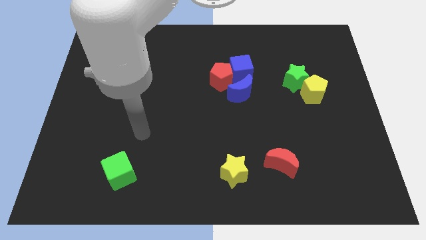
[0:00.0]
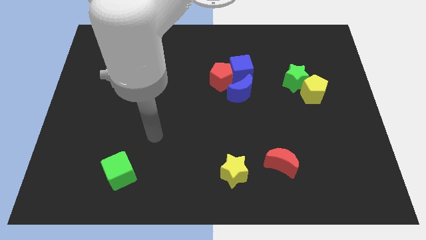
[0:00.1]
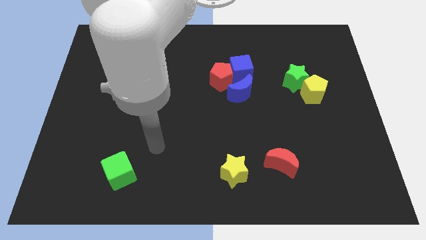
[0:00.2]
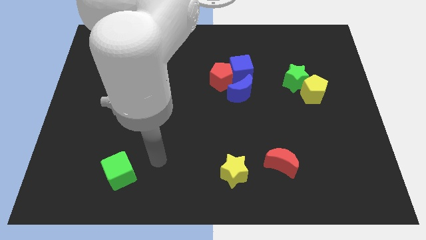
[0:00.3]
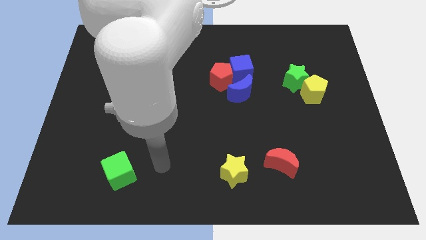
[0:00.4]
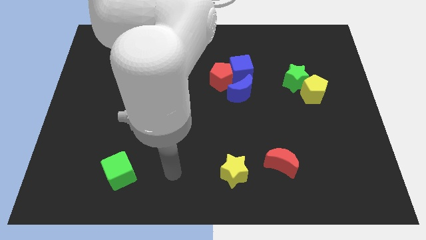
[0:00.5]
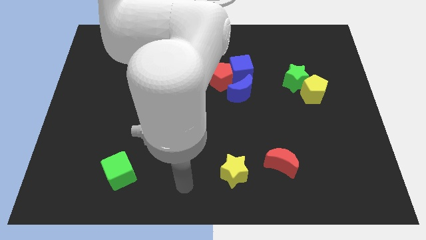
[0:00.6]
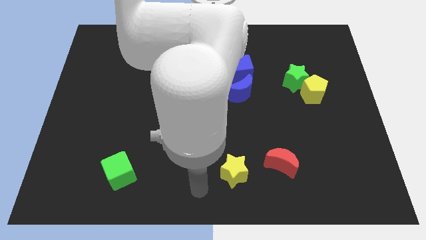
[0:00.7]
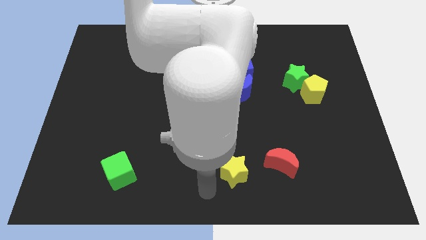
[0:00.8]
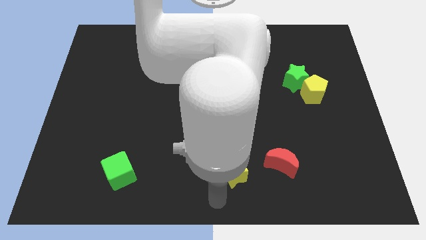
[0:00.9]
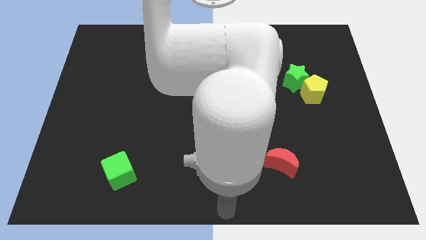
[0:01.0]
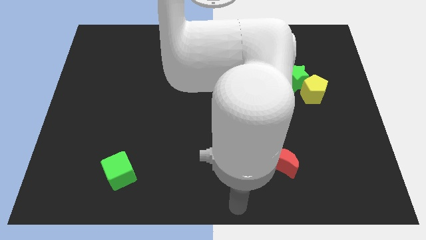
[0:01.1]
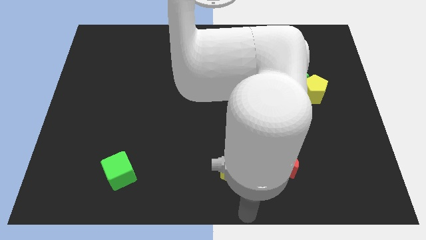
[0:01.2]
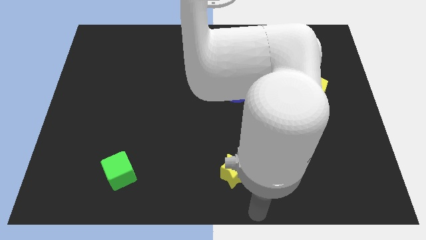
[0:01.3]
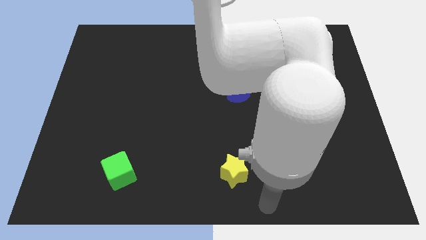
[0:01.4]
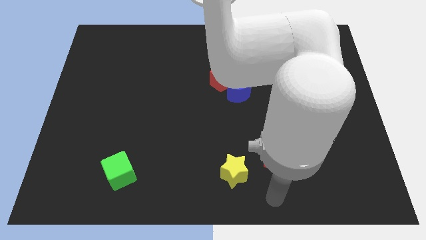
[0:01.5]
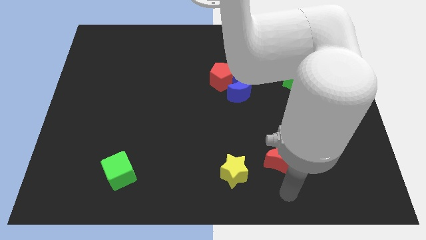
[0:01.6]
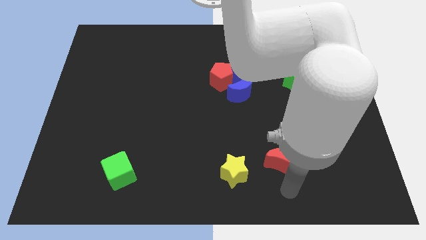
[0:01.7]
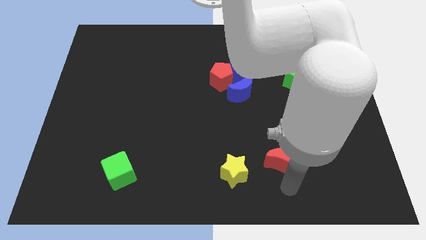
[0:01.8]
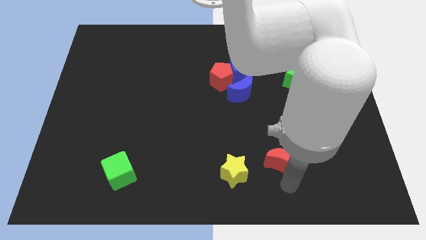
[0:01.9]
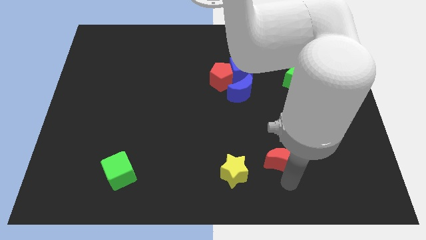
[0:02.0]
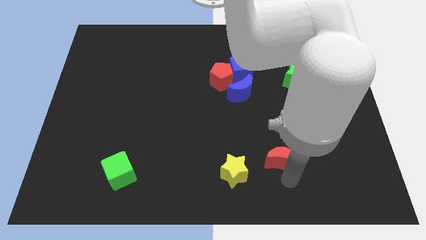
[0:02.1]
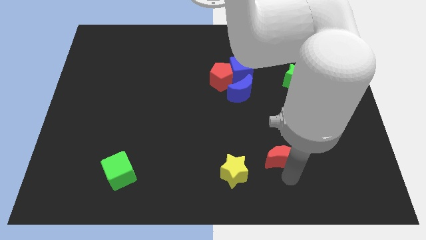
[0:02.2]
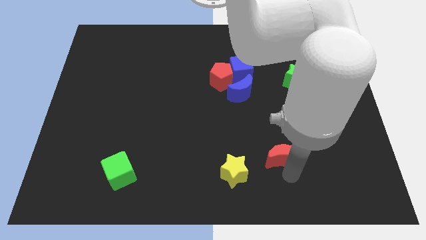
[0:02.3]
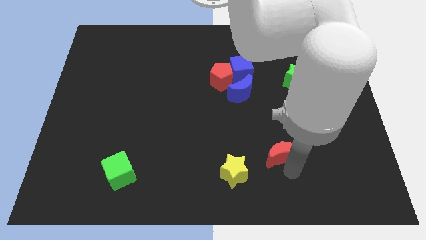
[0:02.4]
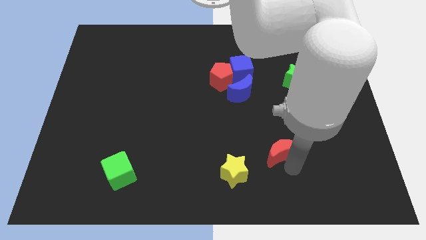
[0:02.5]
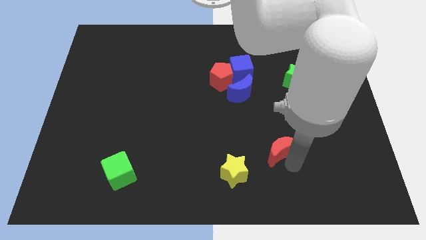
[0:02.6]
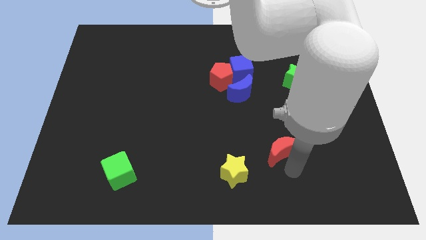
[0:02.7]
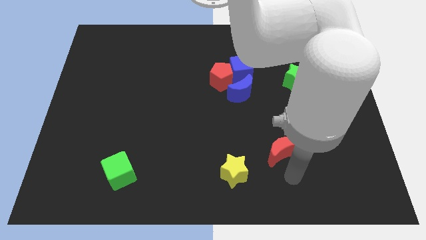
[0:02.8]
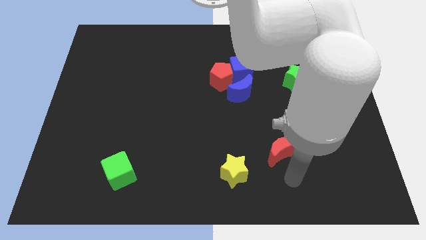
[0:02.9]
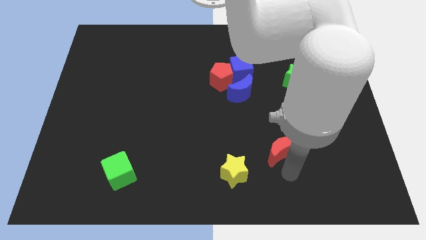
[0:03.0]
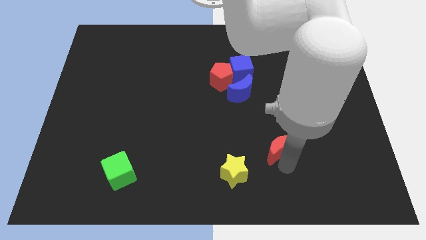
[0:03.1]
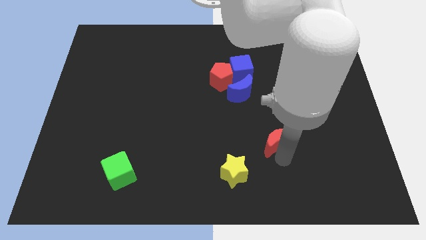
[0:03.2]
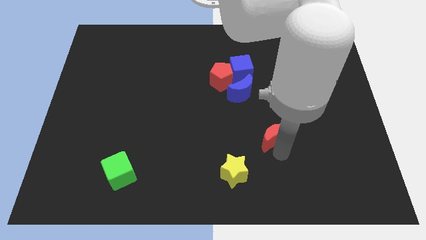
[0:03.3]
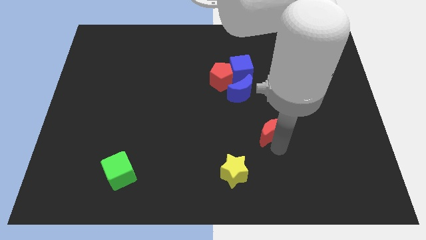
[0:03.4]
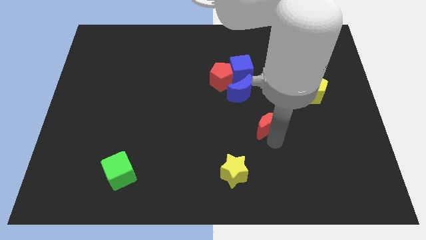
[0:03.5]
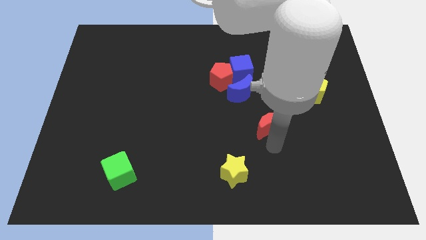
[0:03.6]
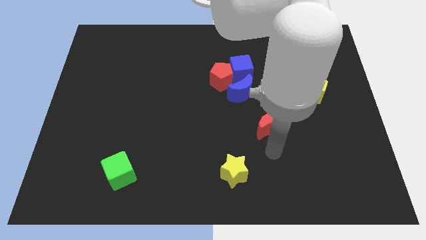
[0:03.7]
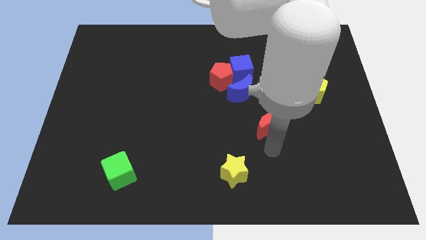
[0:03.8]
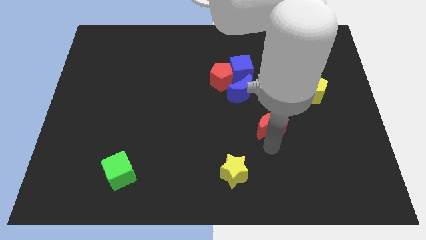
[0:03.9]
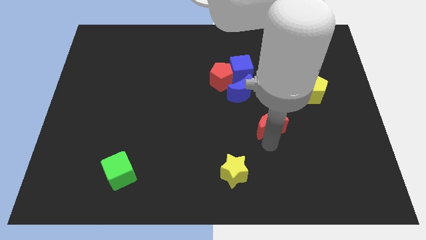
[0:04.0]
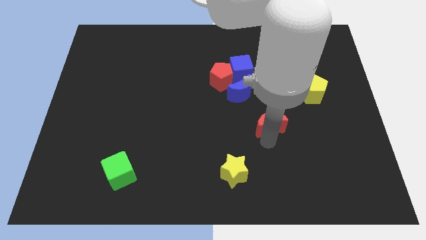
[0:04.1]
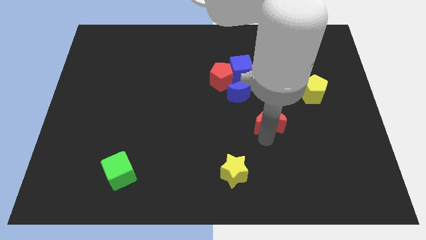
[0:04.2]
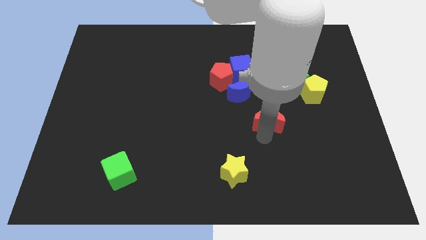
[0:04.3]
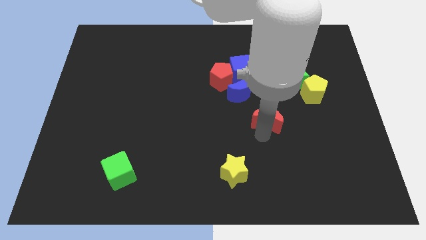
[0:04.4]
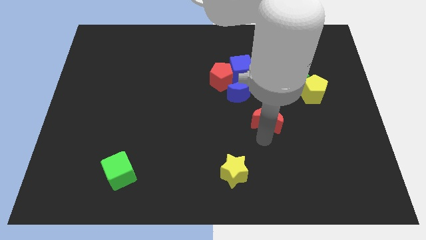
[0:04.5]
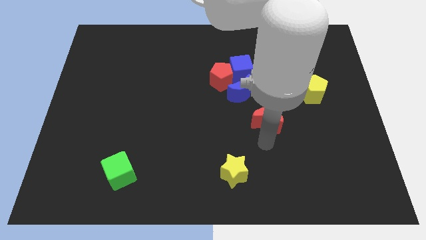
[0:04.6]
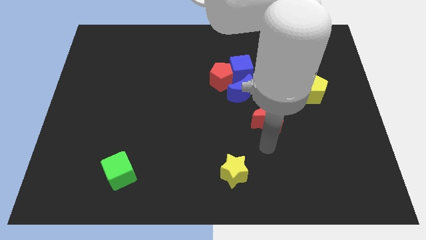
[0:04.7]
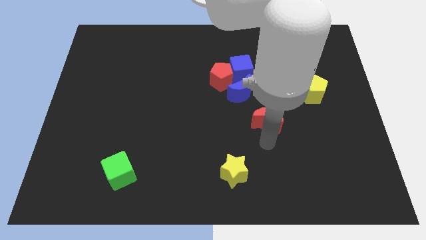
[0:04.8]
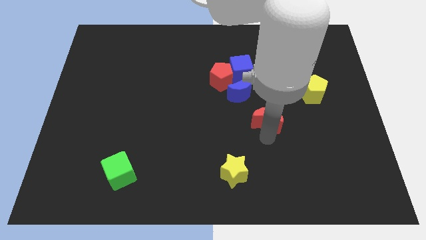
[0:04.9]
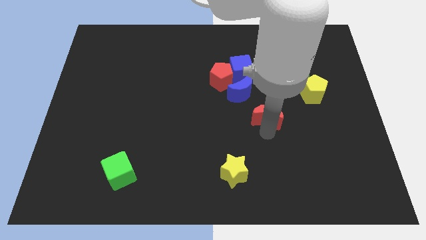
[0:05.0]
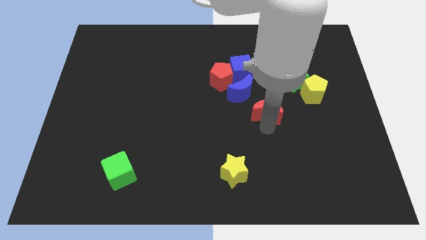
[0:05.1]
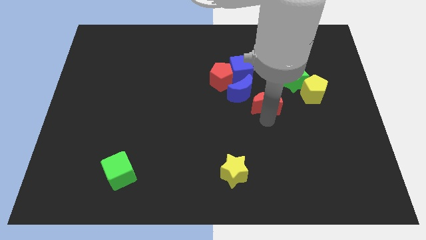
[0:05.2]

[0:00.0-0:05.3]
put the red moon to the bottom right of the blue cube

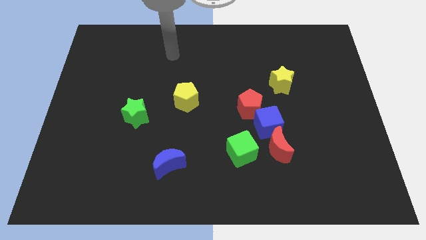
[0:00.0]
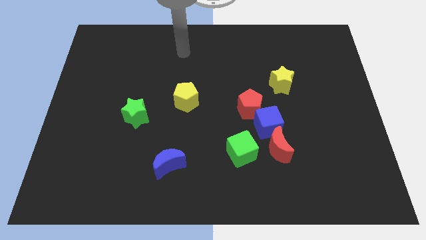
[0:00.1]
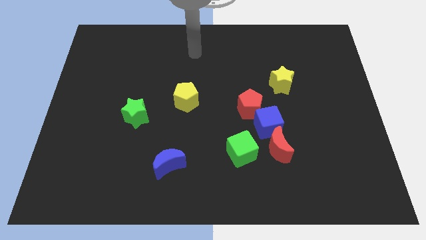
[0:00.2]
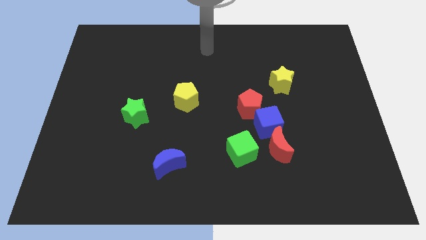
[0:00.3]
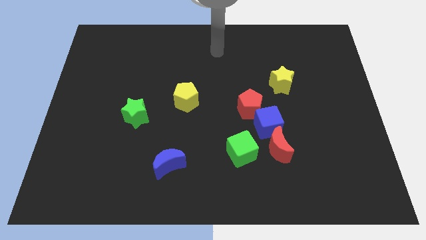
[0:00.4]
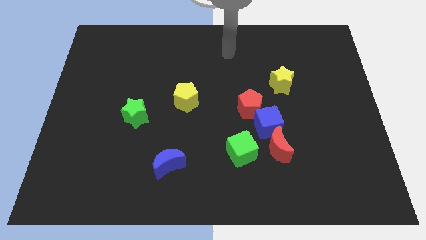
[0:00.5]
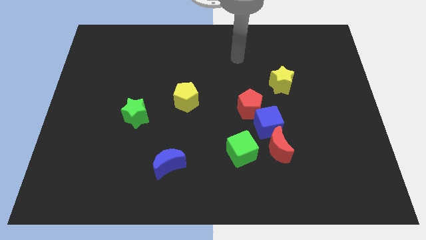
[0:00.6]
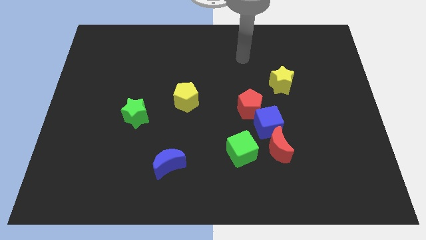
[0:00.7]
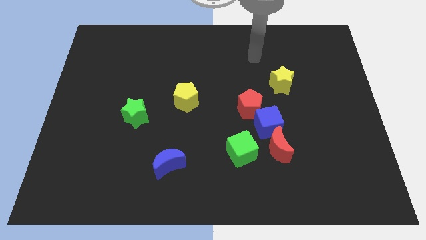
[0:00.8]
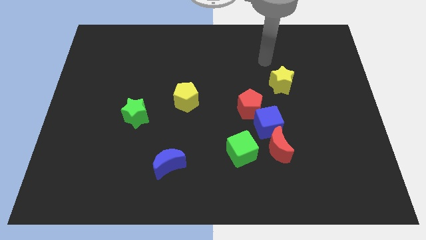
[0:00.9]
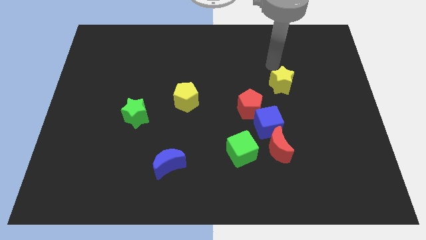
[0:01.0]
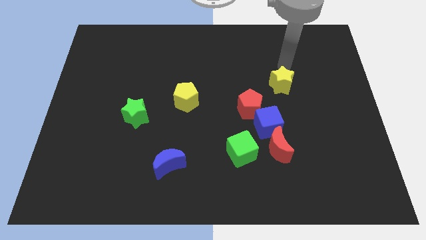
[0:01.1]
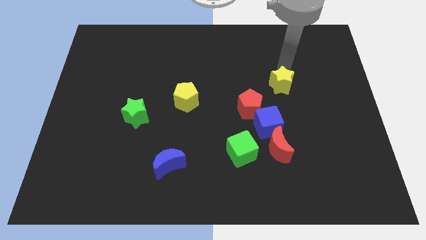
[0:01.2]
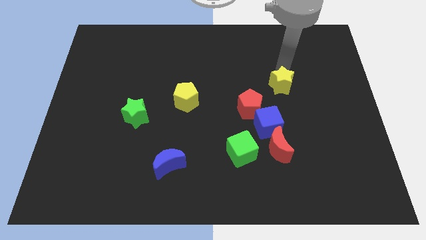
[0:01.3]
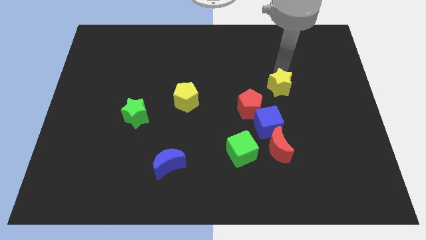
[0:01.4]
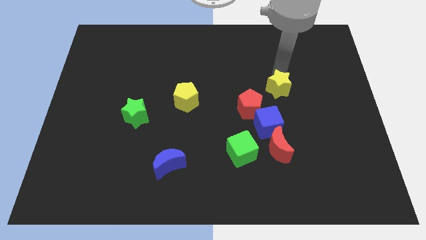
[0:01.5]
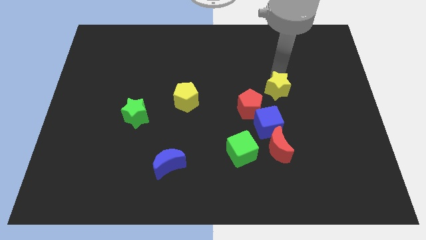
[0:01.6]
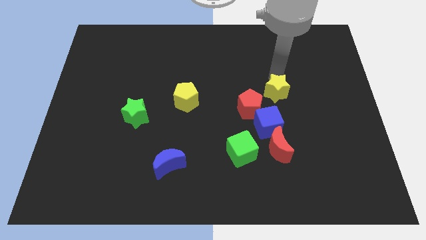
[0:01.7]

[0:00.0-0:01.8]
slide the yellow star to the top of the red moon

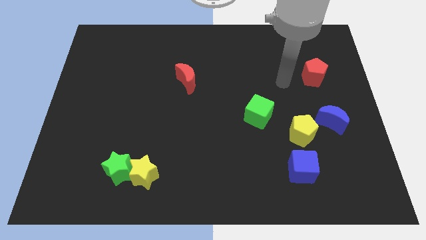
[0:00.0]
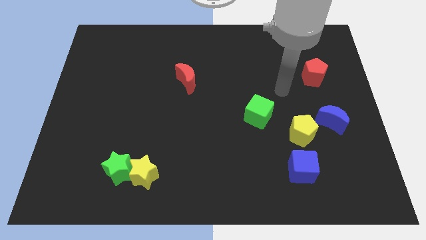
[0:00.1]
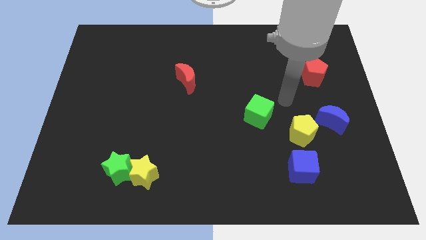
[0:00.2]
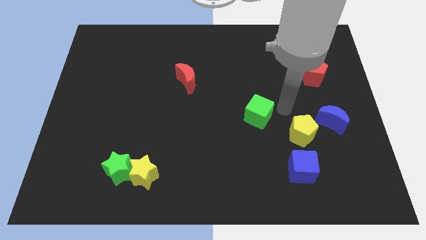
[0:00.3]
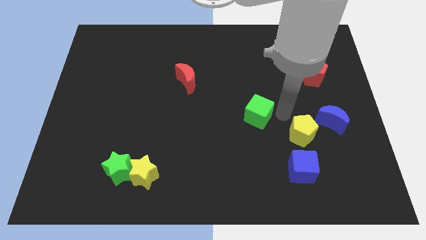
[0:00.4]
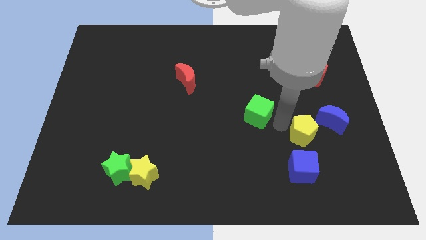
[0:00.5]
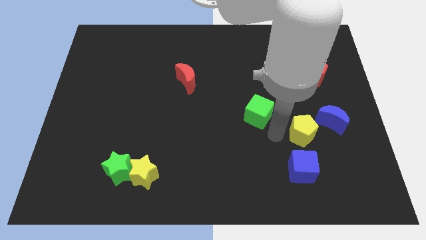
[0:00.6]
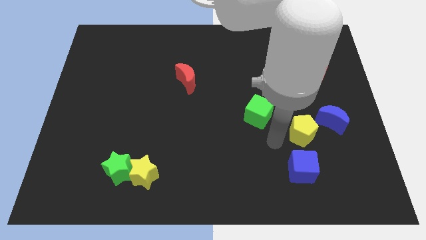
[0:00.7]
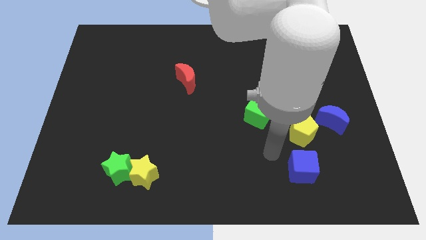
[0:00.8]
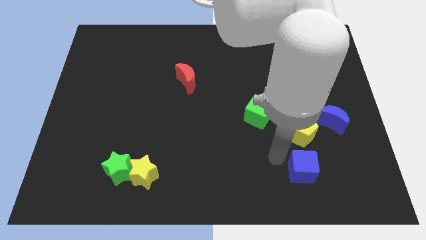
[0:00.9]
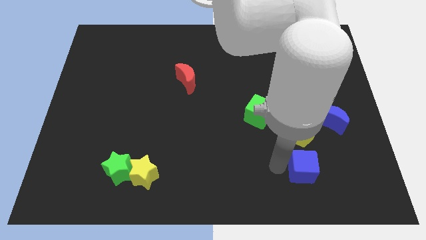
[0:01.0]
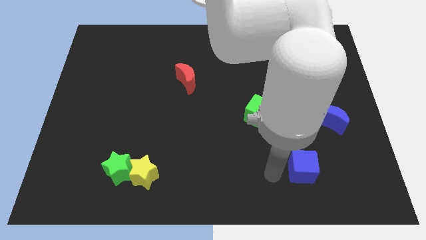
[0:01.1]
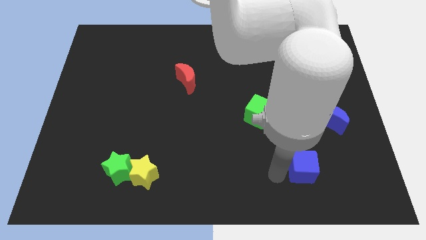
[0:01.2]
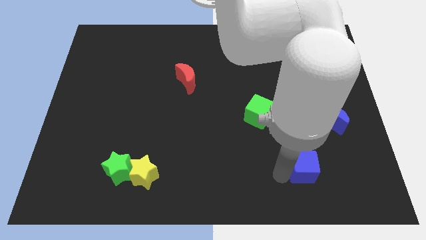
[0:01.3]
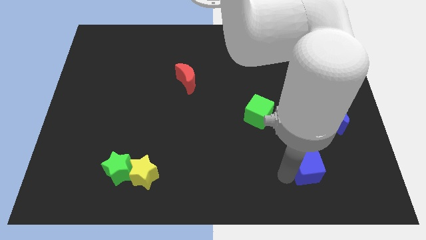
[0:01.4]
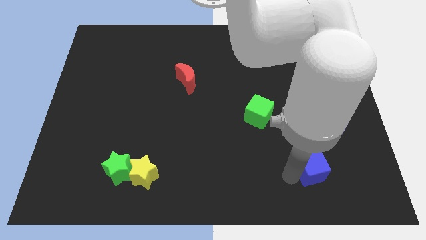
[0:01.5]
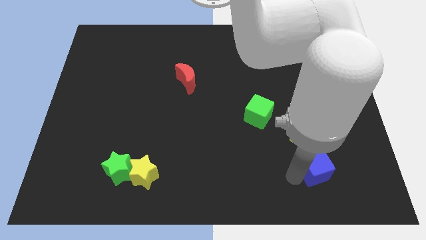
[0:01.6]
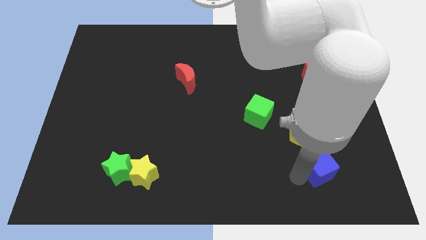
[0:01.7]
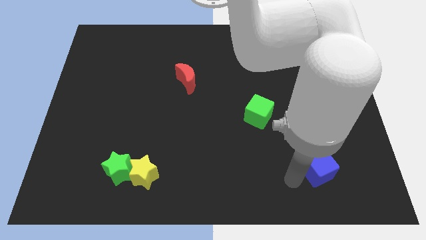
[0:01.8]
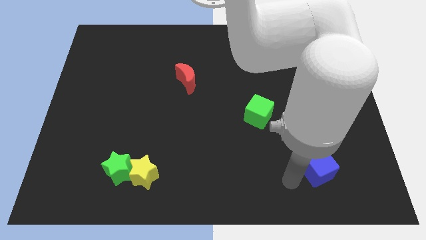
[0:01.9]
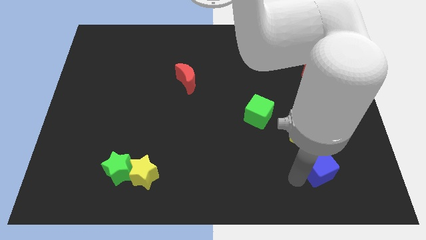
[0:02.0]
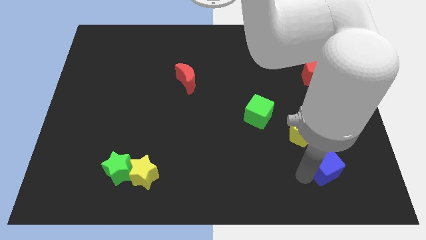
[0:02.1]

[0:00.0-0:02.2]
move the blue cube to the bottom of the blue moon
